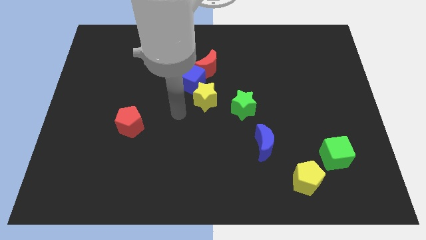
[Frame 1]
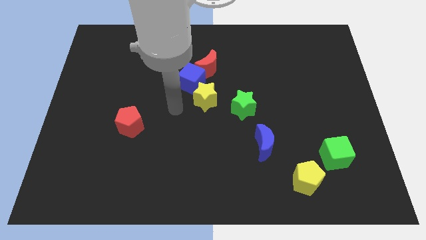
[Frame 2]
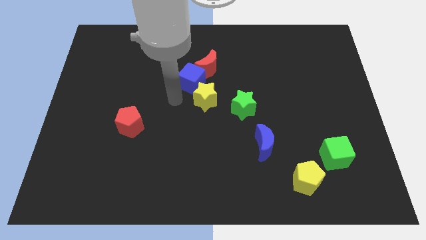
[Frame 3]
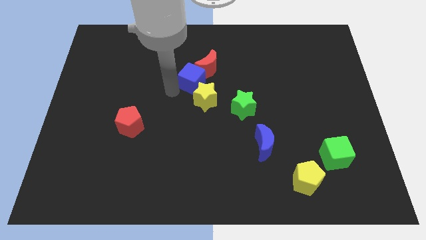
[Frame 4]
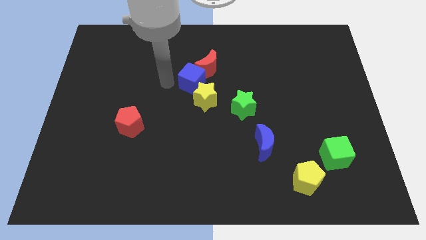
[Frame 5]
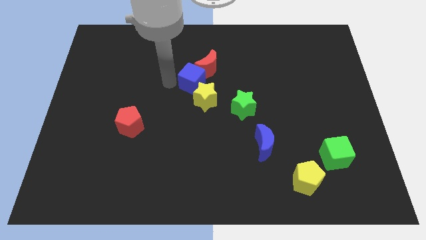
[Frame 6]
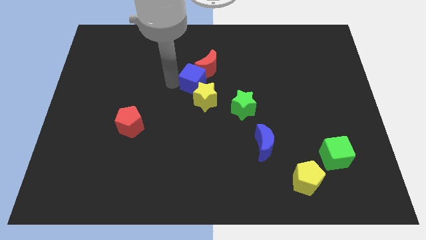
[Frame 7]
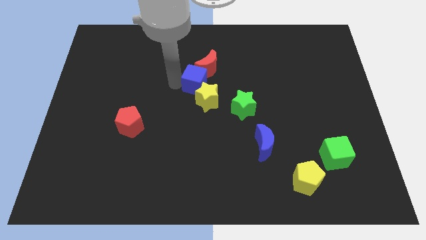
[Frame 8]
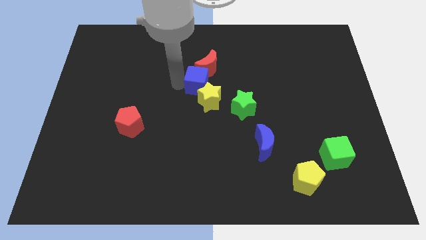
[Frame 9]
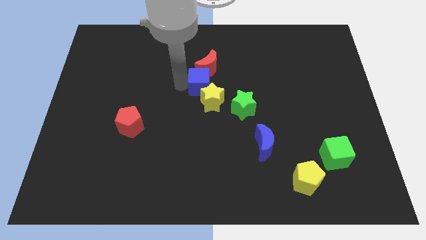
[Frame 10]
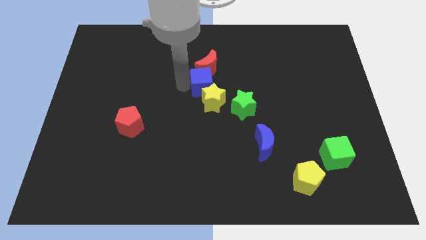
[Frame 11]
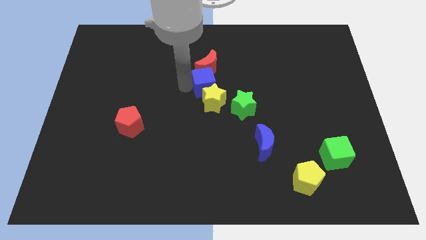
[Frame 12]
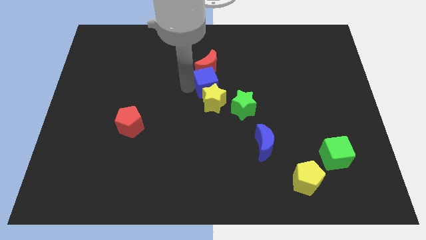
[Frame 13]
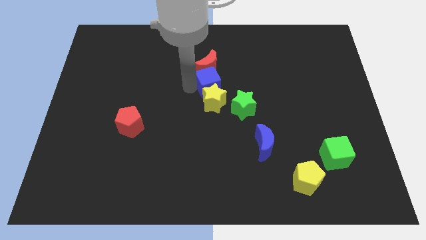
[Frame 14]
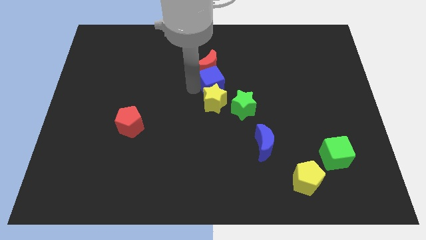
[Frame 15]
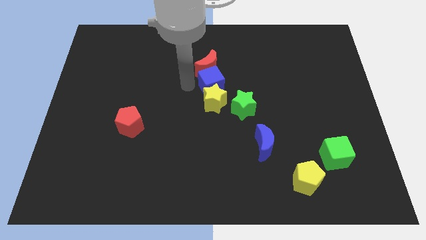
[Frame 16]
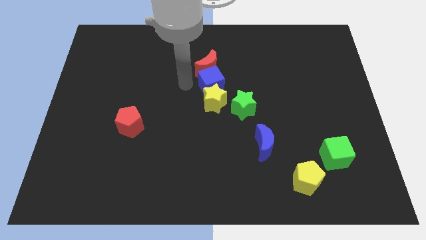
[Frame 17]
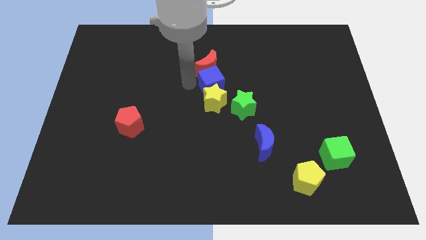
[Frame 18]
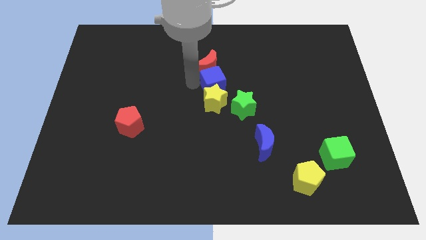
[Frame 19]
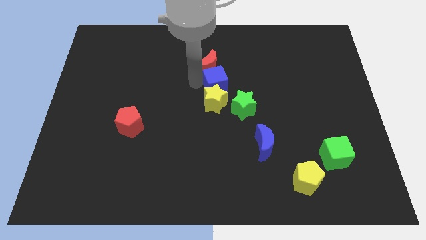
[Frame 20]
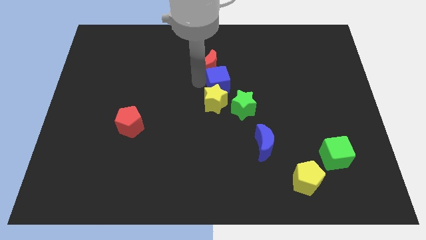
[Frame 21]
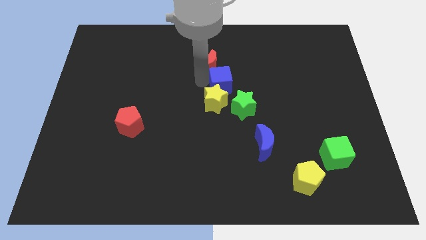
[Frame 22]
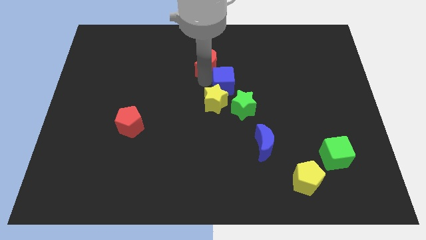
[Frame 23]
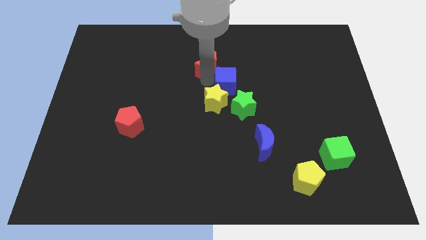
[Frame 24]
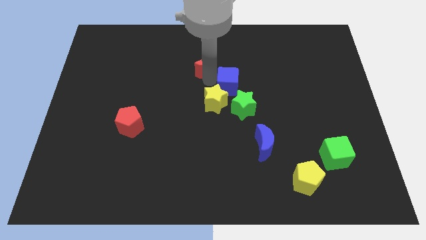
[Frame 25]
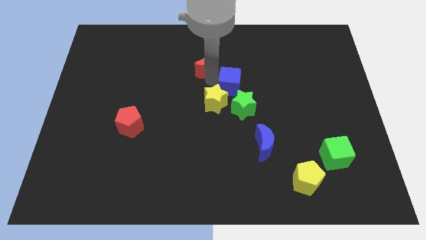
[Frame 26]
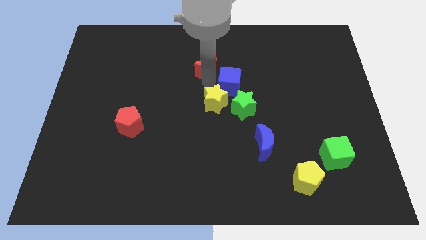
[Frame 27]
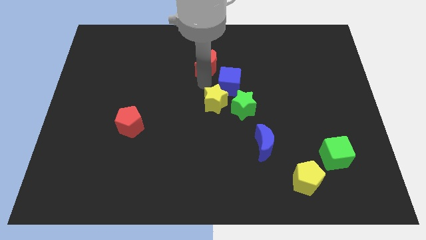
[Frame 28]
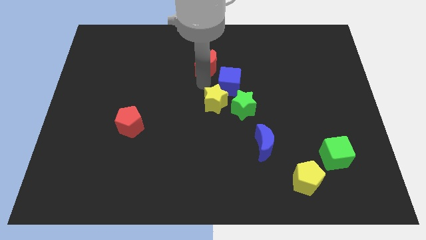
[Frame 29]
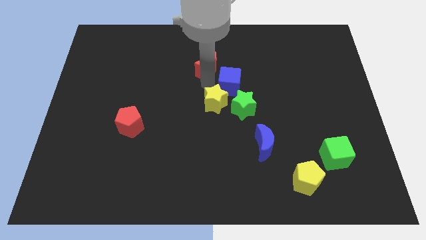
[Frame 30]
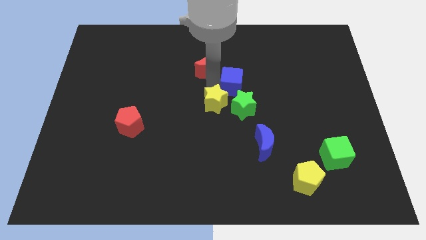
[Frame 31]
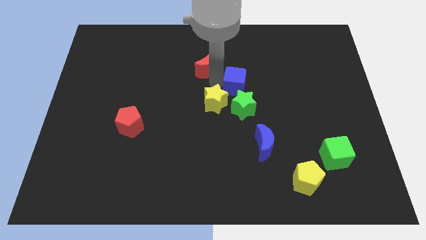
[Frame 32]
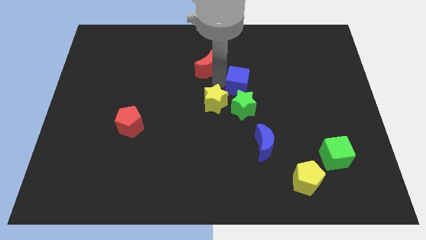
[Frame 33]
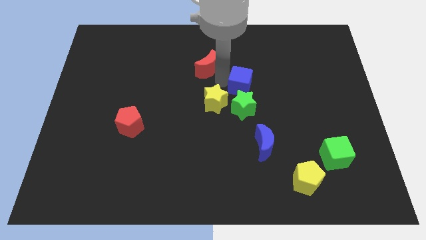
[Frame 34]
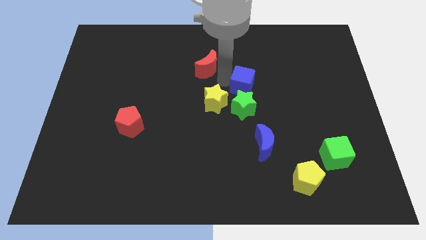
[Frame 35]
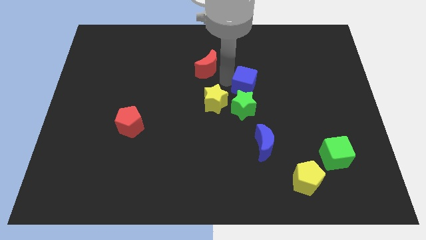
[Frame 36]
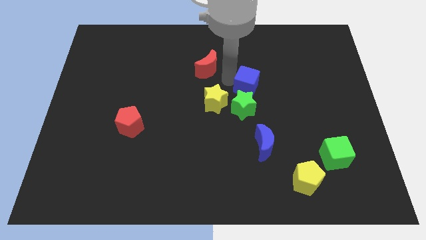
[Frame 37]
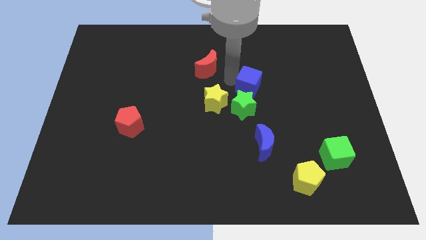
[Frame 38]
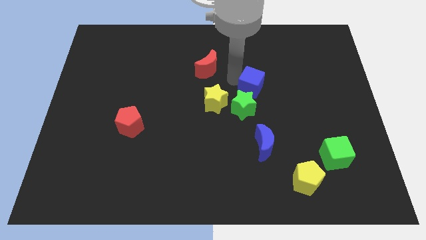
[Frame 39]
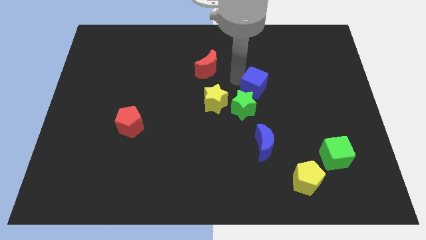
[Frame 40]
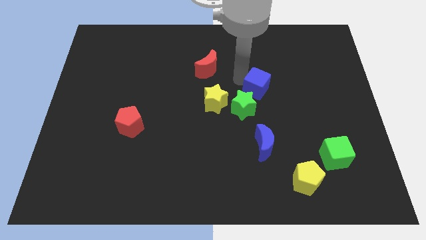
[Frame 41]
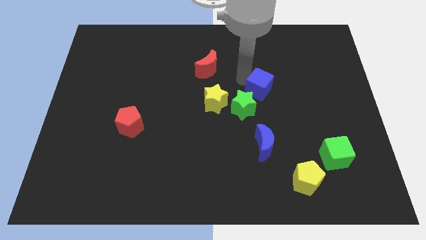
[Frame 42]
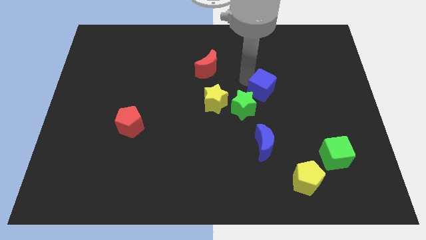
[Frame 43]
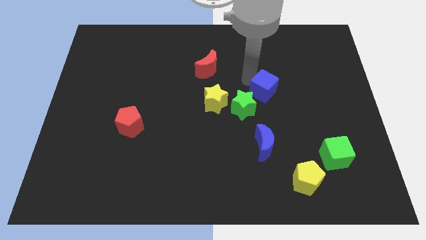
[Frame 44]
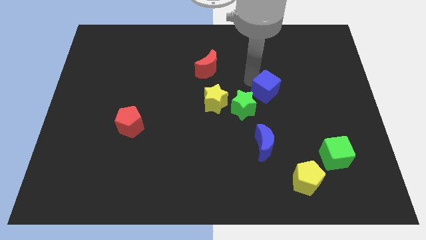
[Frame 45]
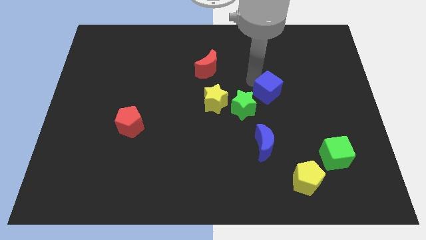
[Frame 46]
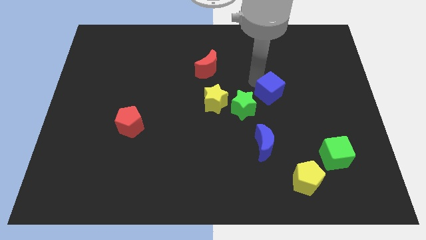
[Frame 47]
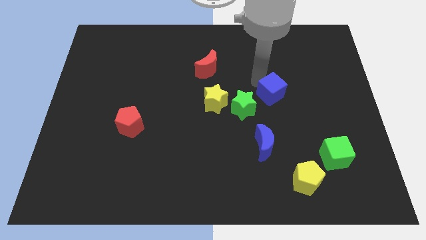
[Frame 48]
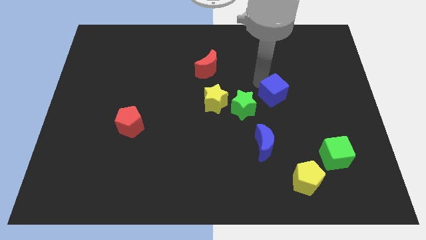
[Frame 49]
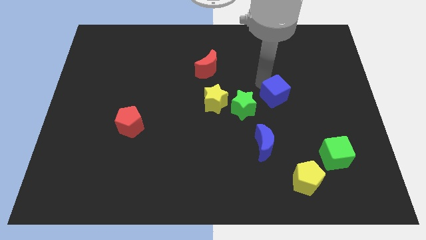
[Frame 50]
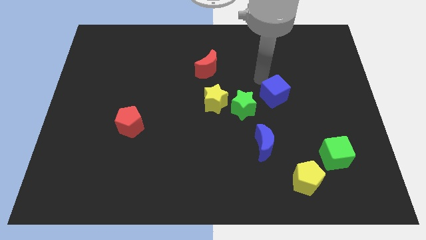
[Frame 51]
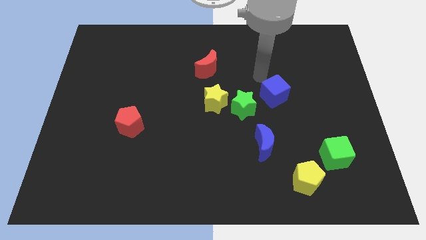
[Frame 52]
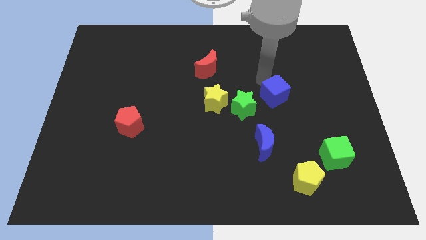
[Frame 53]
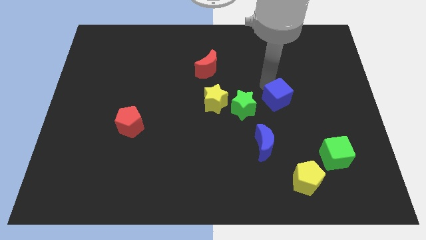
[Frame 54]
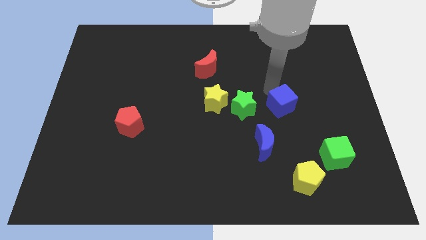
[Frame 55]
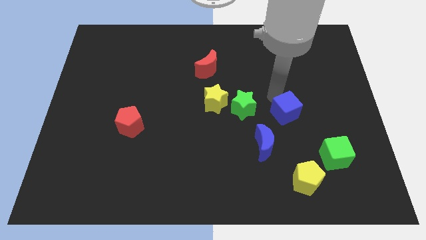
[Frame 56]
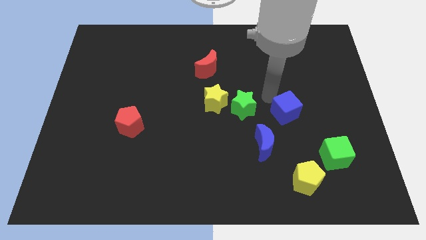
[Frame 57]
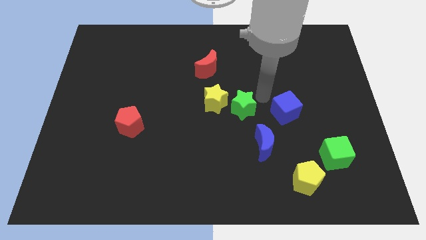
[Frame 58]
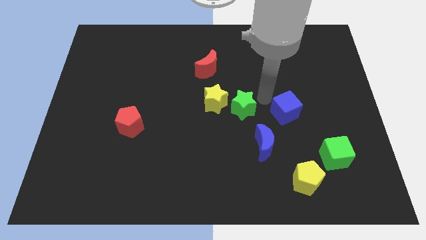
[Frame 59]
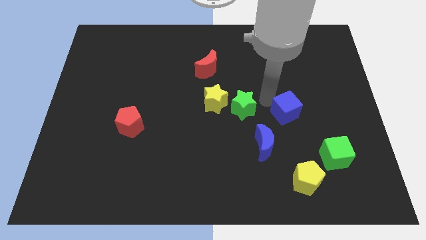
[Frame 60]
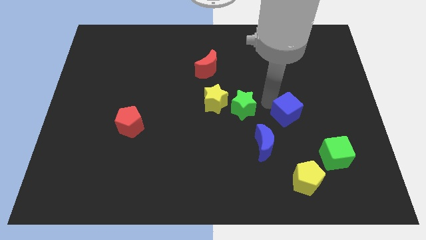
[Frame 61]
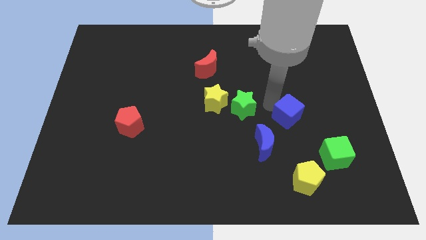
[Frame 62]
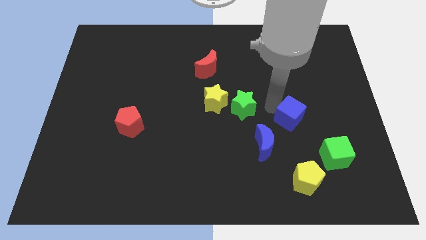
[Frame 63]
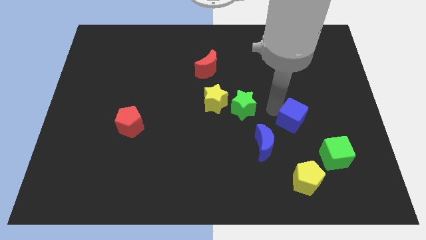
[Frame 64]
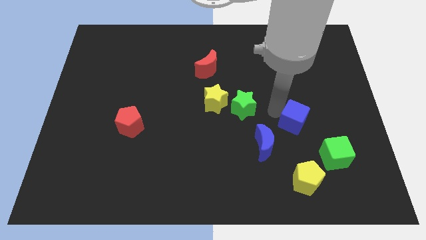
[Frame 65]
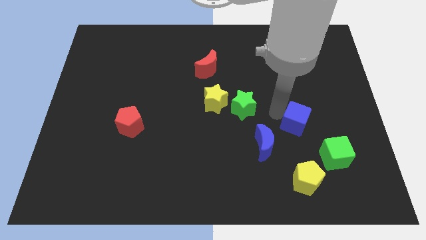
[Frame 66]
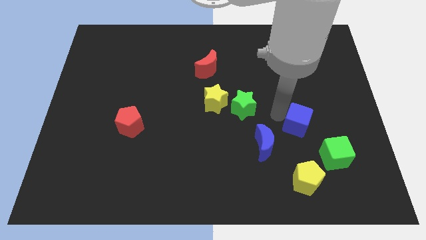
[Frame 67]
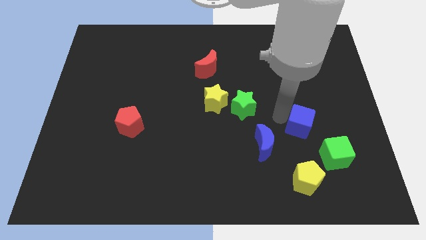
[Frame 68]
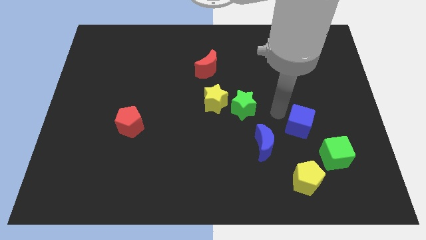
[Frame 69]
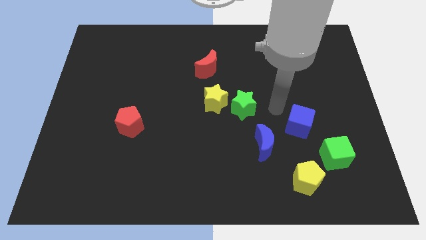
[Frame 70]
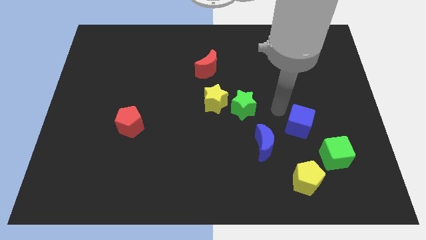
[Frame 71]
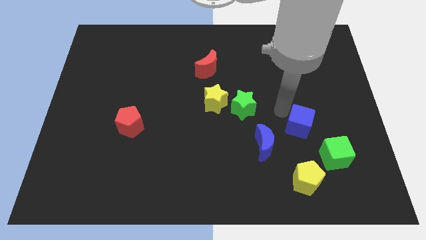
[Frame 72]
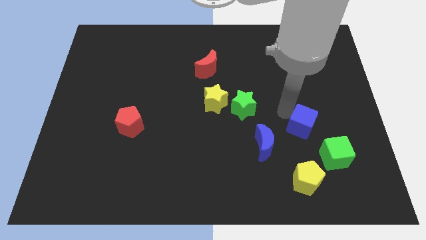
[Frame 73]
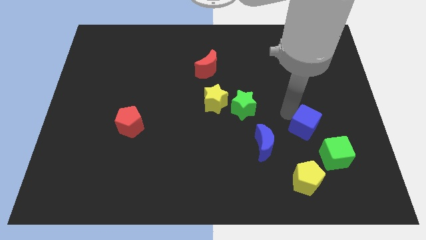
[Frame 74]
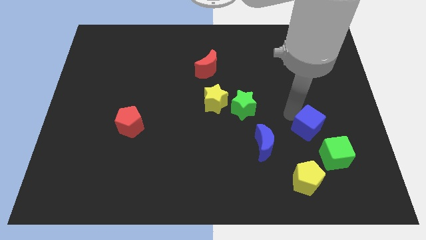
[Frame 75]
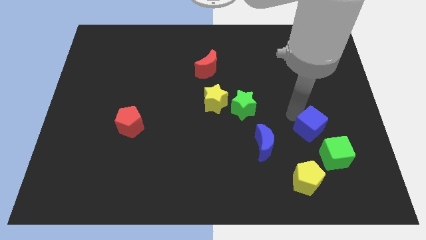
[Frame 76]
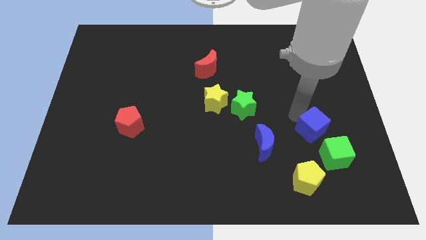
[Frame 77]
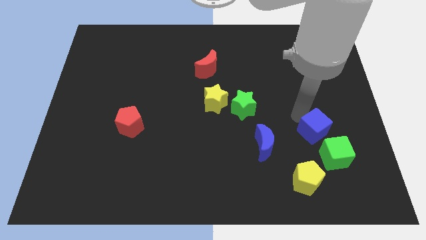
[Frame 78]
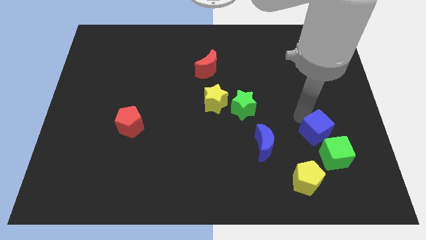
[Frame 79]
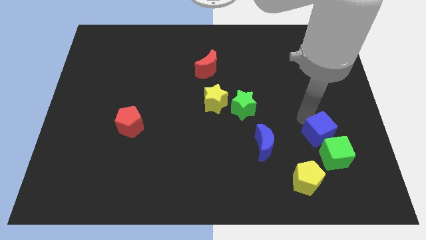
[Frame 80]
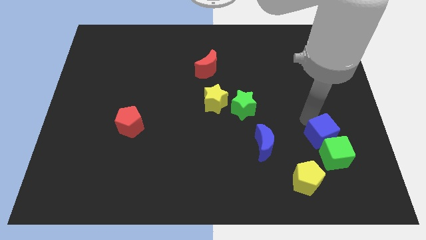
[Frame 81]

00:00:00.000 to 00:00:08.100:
slide the blue cube close to the green cube

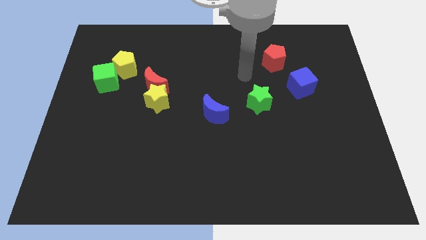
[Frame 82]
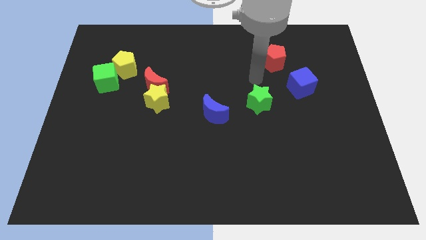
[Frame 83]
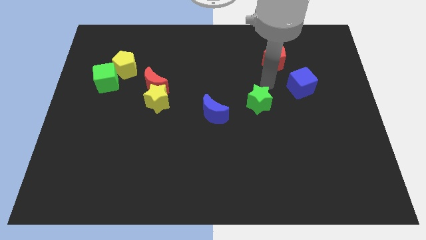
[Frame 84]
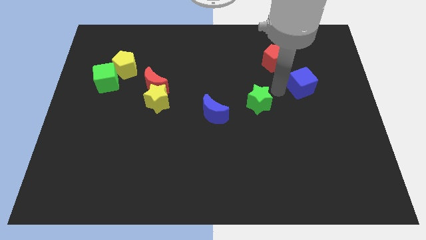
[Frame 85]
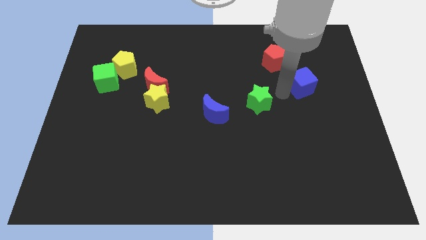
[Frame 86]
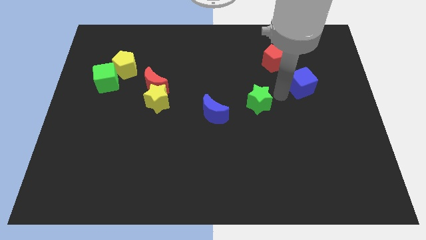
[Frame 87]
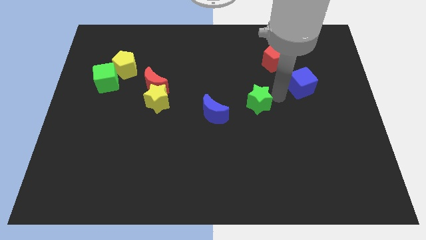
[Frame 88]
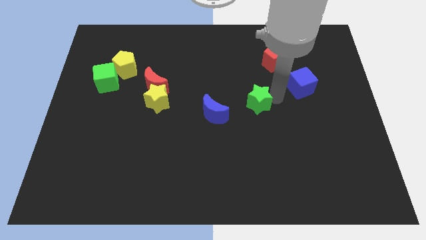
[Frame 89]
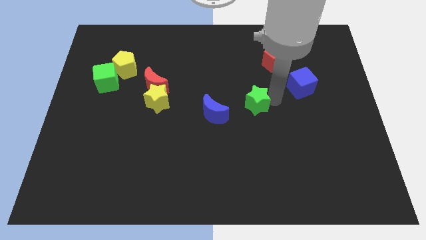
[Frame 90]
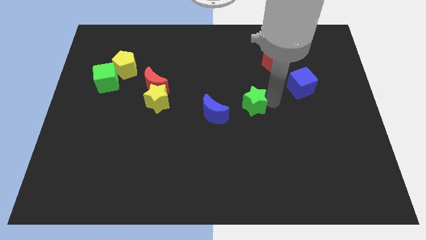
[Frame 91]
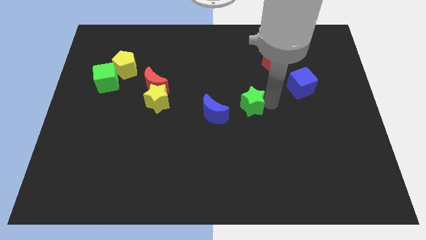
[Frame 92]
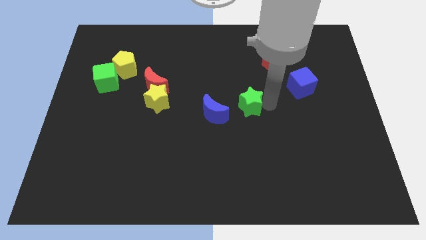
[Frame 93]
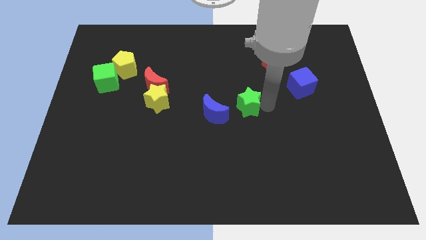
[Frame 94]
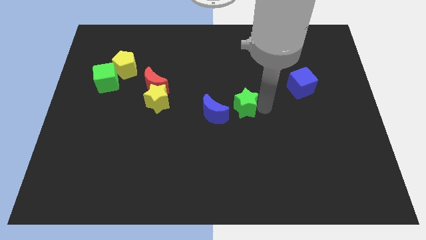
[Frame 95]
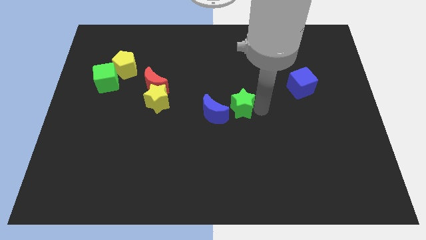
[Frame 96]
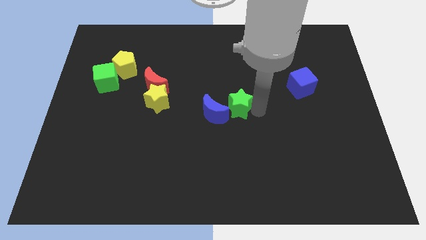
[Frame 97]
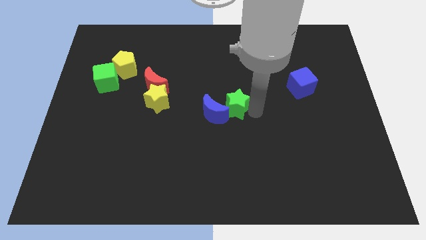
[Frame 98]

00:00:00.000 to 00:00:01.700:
slide the green star to the blue moon
